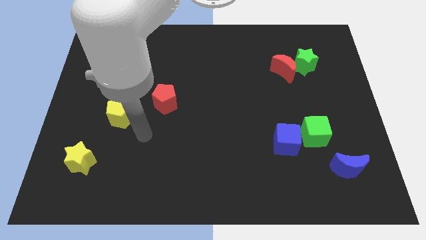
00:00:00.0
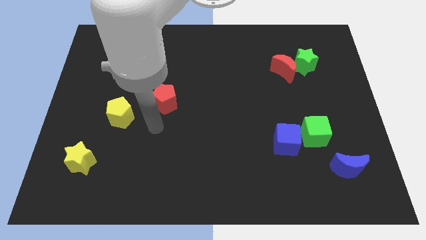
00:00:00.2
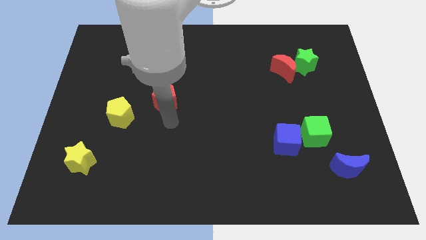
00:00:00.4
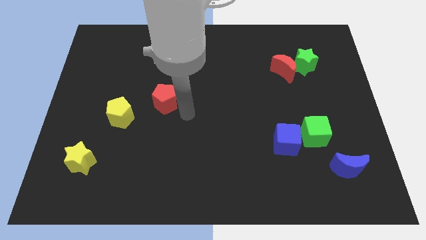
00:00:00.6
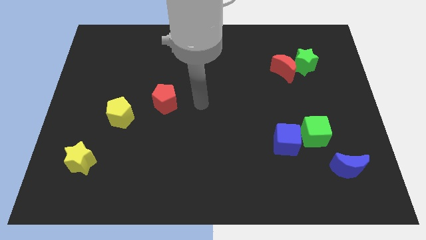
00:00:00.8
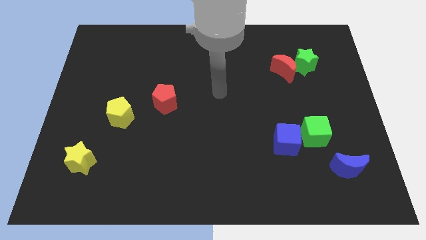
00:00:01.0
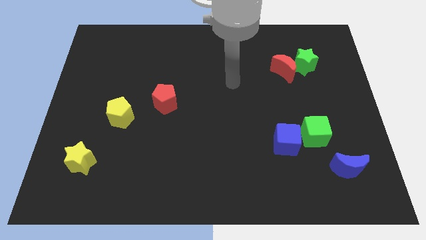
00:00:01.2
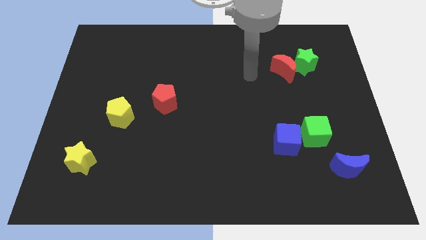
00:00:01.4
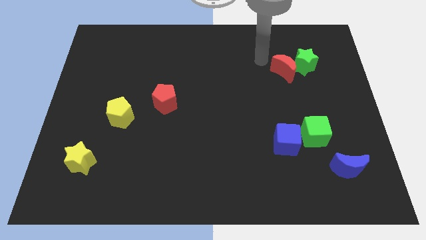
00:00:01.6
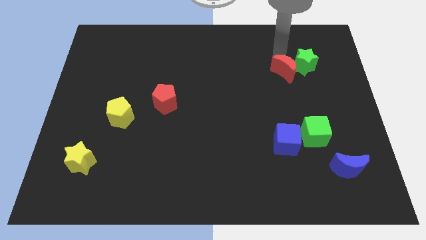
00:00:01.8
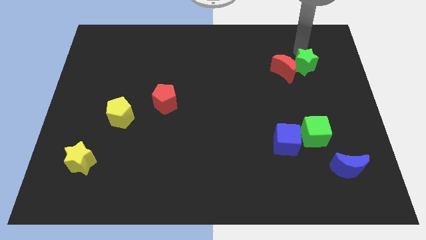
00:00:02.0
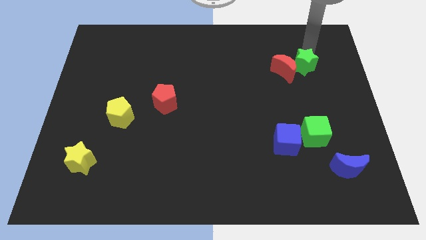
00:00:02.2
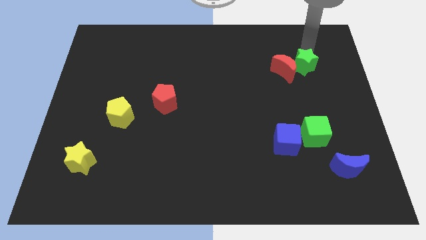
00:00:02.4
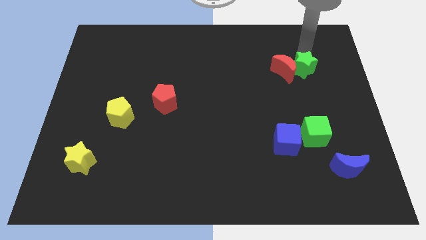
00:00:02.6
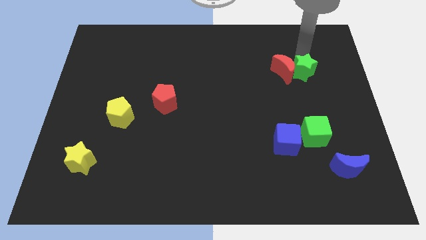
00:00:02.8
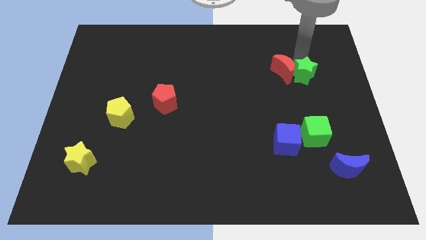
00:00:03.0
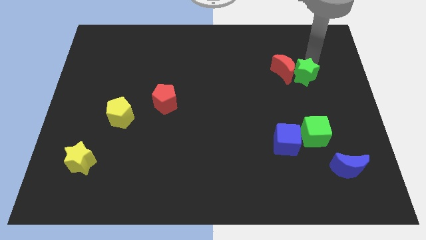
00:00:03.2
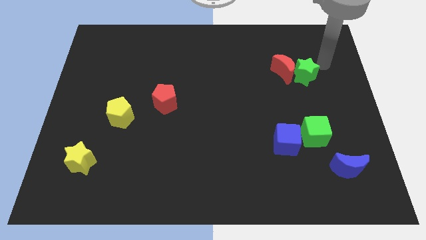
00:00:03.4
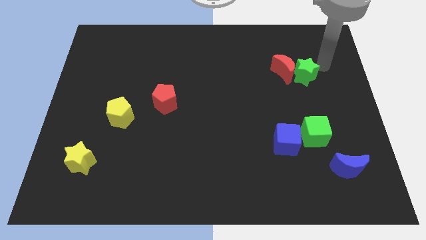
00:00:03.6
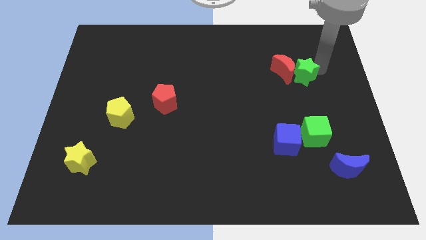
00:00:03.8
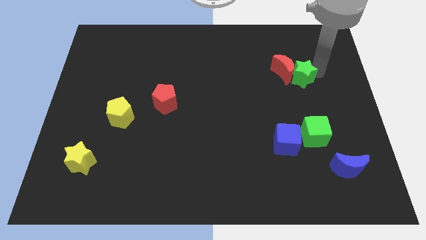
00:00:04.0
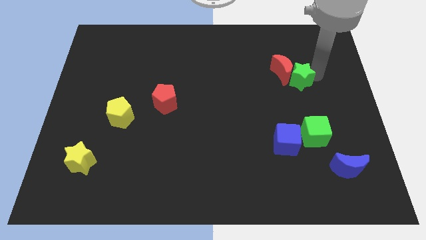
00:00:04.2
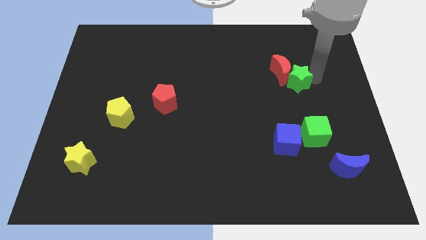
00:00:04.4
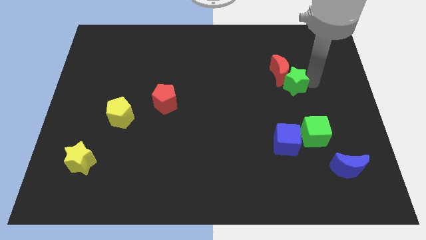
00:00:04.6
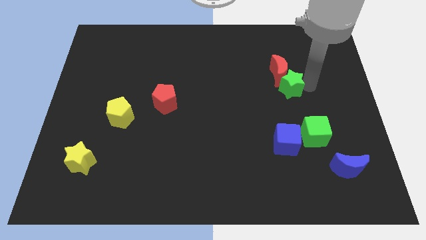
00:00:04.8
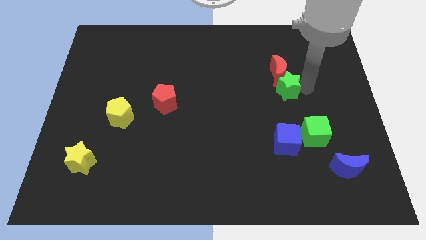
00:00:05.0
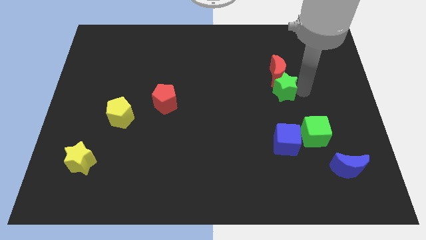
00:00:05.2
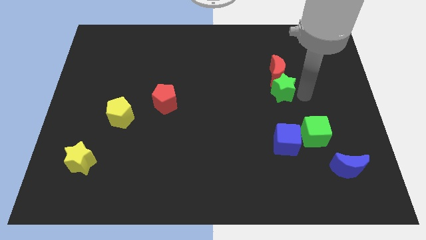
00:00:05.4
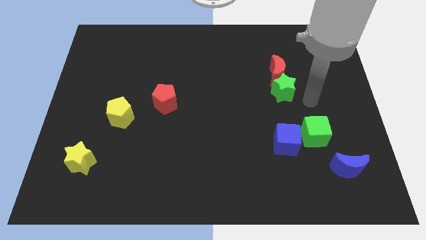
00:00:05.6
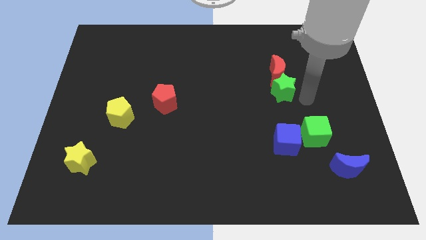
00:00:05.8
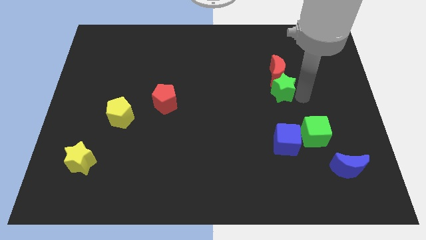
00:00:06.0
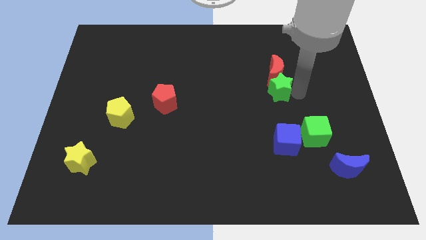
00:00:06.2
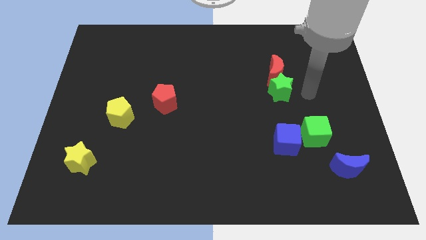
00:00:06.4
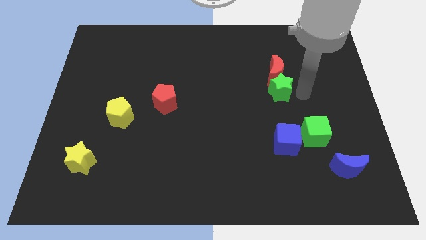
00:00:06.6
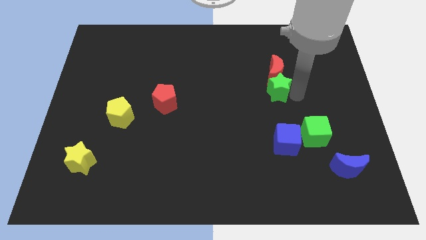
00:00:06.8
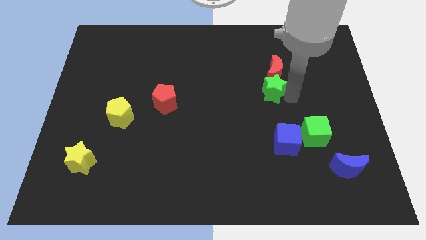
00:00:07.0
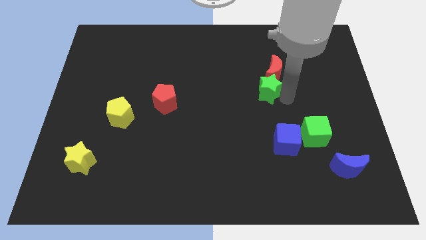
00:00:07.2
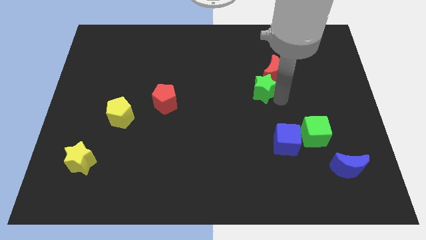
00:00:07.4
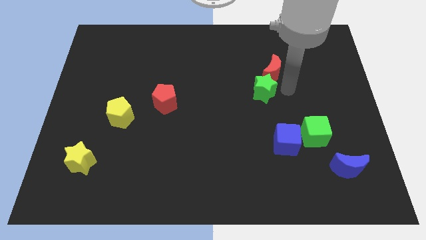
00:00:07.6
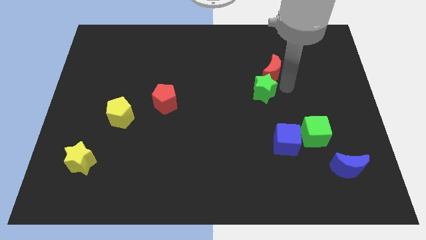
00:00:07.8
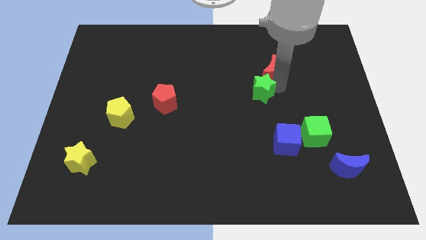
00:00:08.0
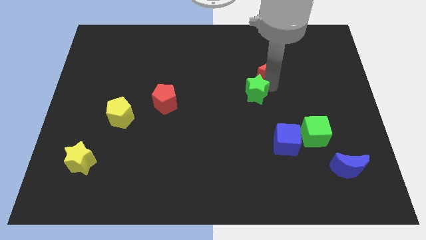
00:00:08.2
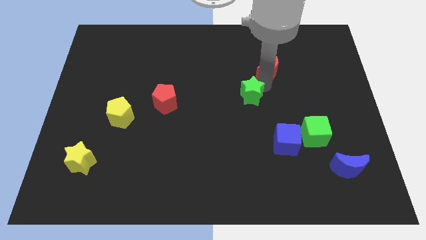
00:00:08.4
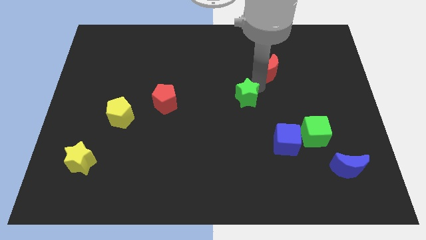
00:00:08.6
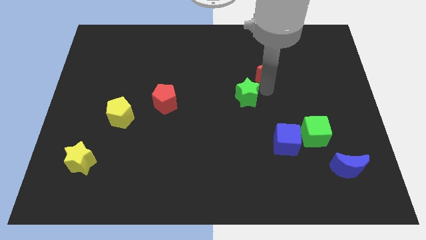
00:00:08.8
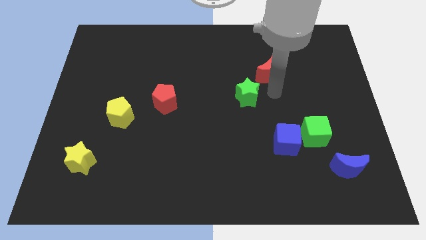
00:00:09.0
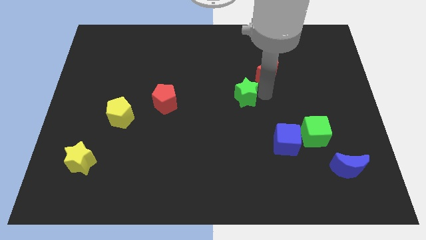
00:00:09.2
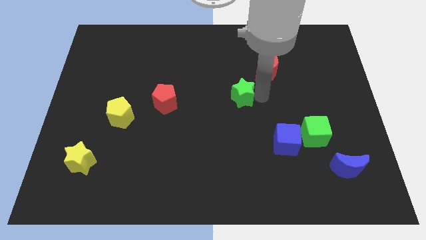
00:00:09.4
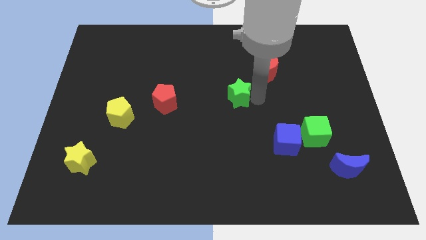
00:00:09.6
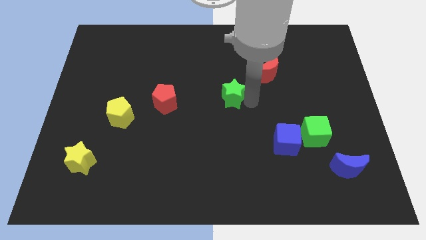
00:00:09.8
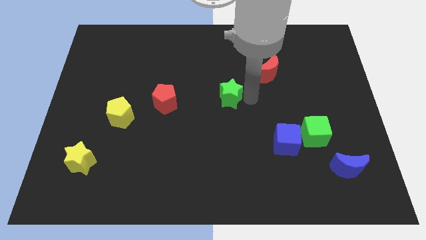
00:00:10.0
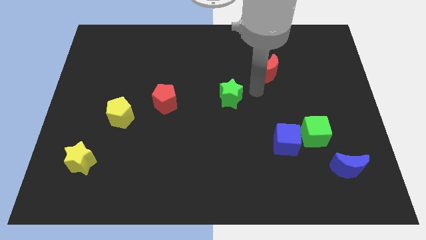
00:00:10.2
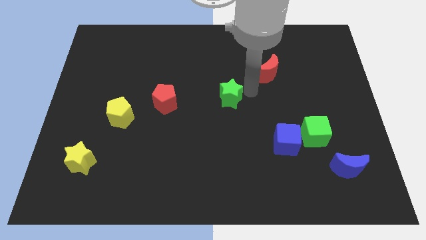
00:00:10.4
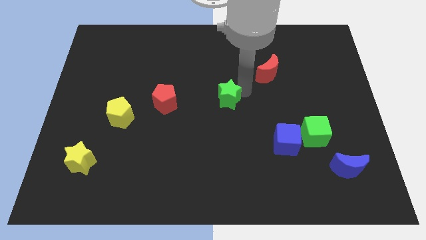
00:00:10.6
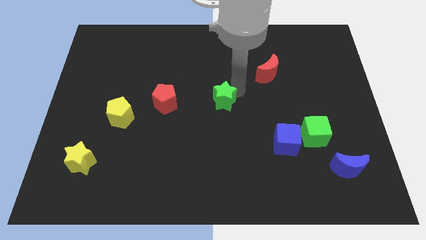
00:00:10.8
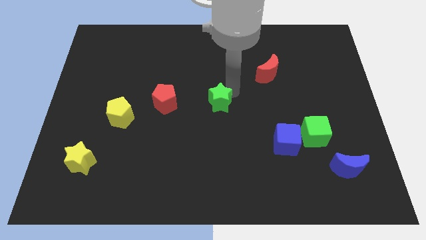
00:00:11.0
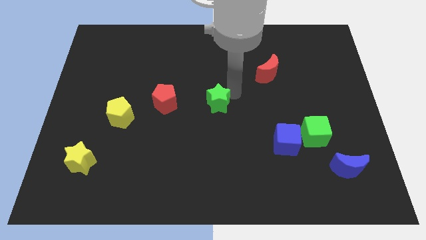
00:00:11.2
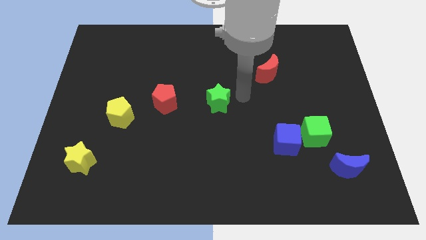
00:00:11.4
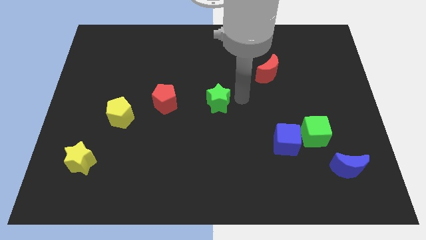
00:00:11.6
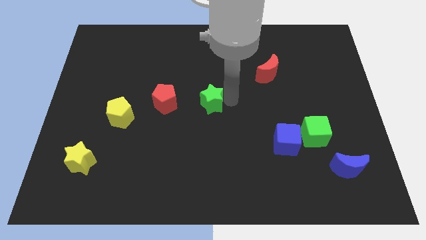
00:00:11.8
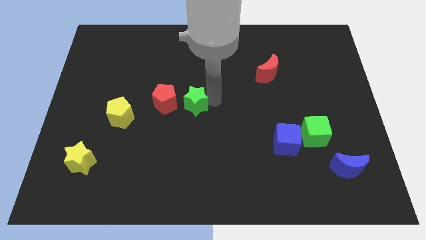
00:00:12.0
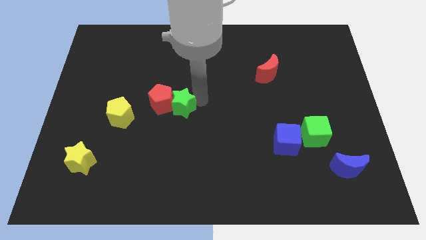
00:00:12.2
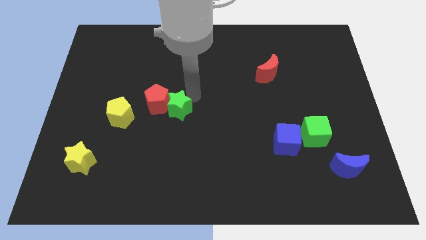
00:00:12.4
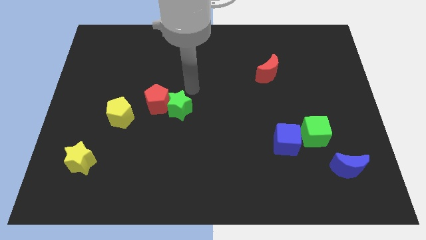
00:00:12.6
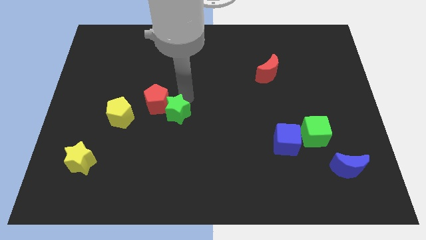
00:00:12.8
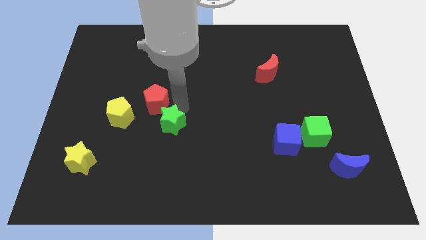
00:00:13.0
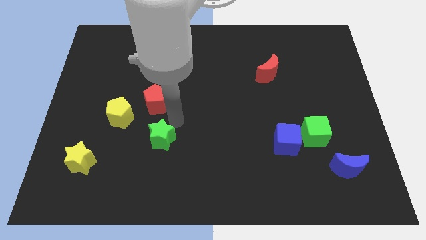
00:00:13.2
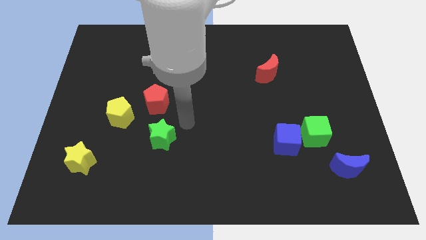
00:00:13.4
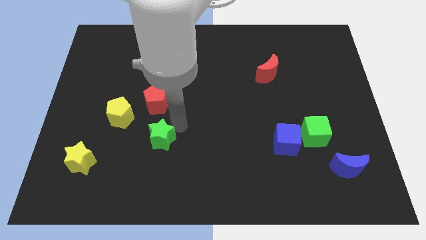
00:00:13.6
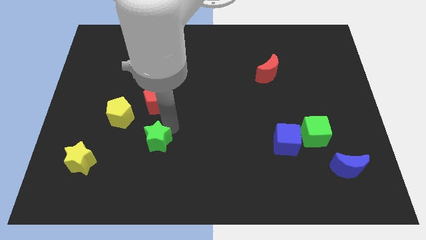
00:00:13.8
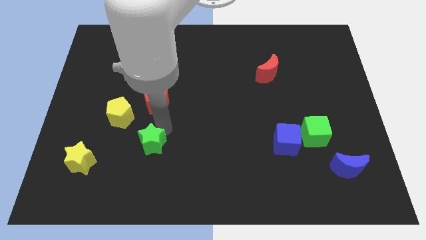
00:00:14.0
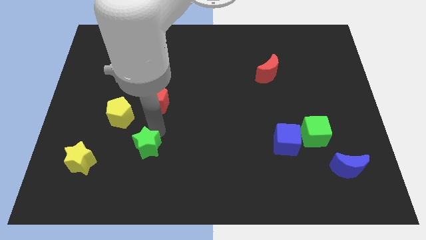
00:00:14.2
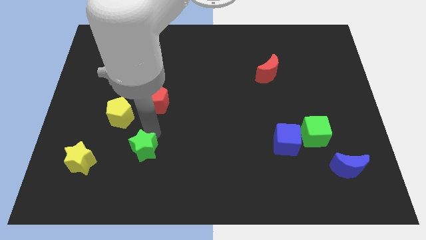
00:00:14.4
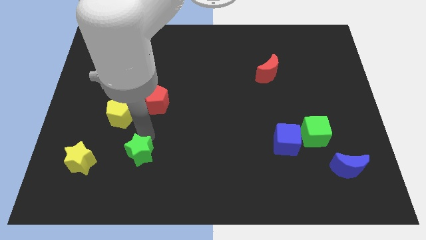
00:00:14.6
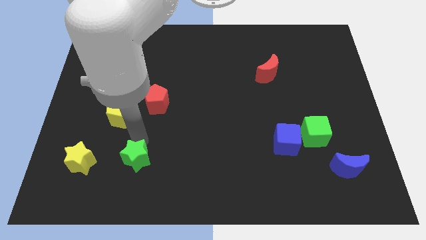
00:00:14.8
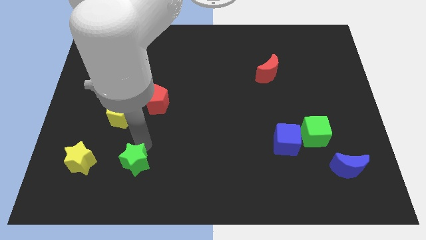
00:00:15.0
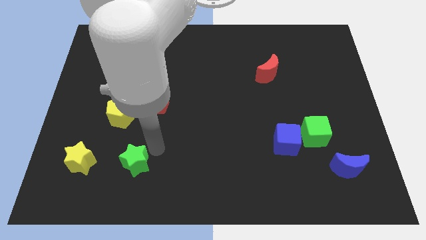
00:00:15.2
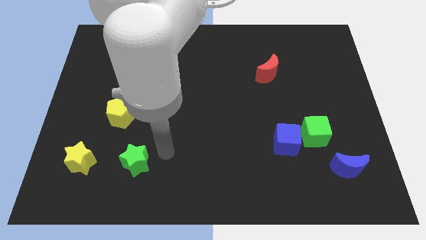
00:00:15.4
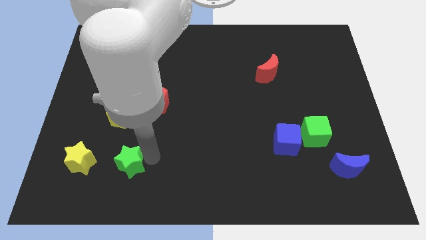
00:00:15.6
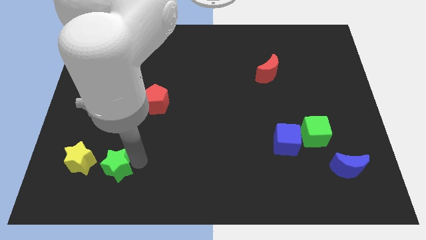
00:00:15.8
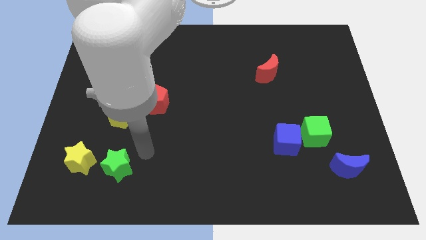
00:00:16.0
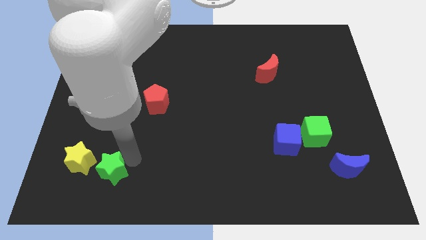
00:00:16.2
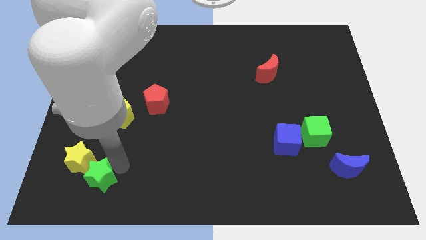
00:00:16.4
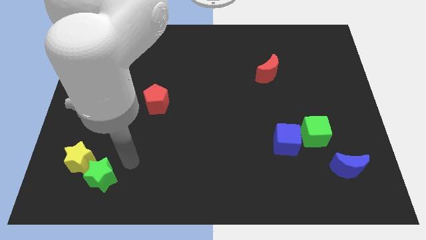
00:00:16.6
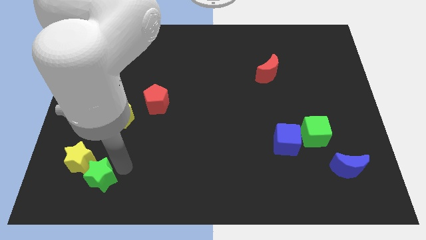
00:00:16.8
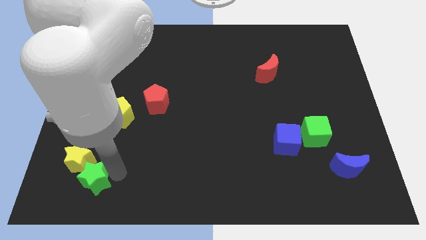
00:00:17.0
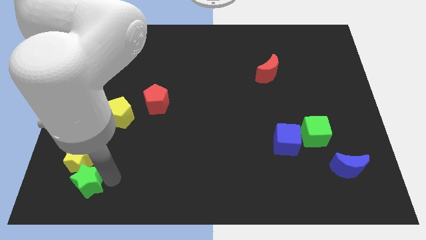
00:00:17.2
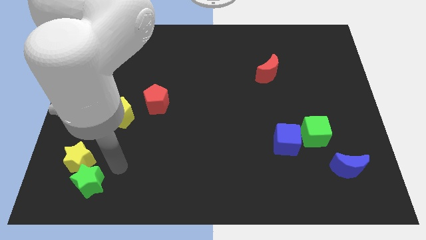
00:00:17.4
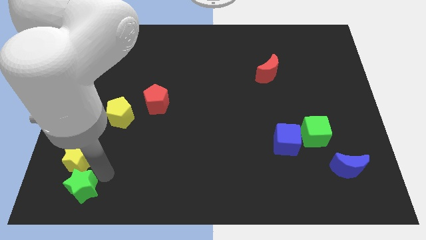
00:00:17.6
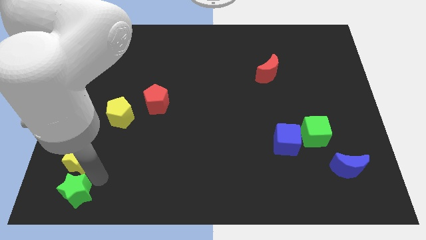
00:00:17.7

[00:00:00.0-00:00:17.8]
move the green star to the bottom left
